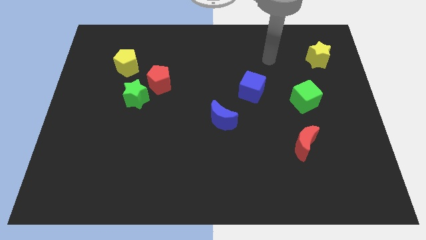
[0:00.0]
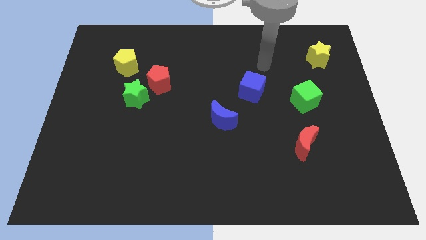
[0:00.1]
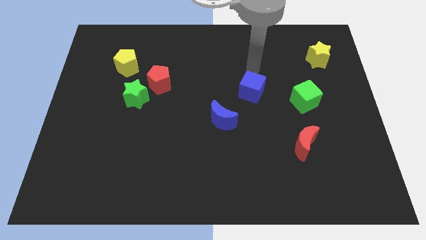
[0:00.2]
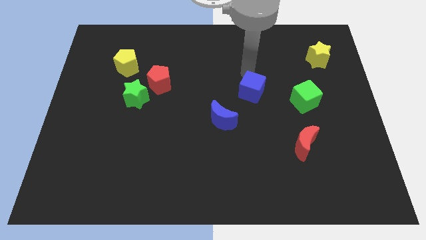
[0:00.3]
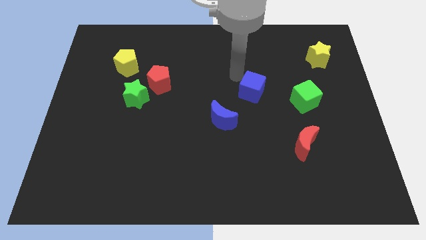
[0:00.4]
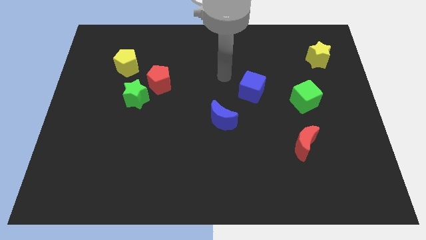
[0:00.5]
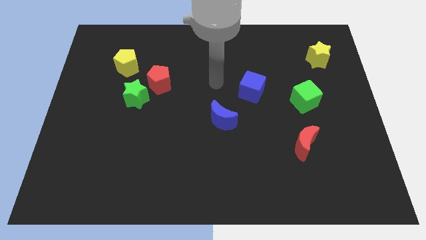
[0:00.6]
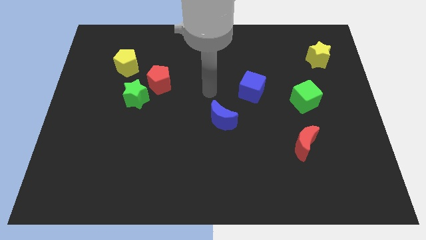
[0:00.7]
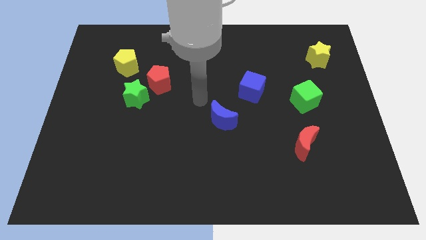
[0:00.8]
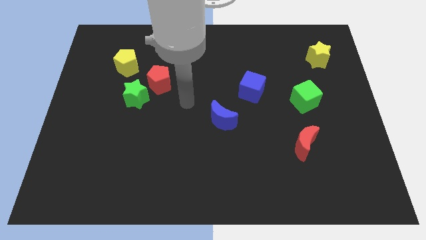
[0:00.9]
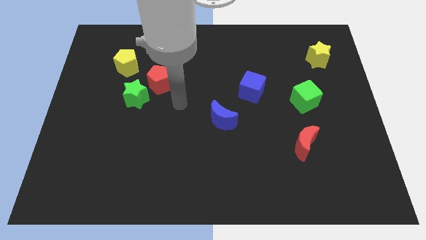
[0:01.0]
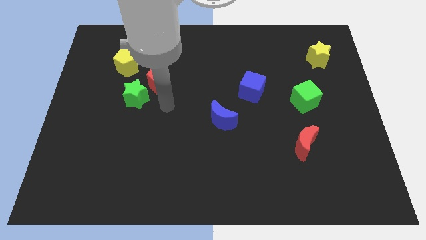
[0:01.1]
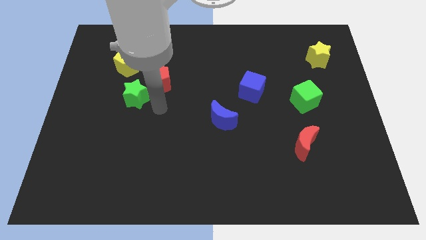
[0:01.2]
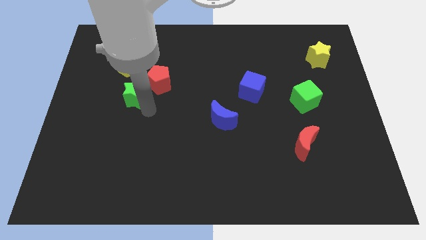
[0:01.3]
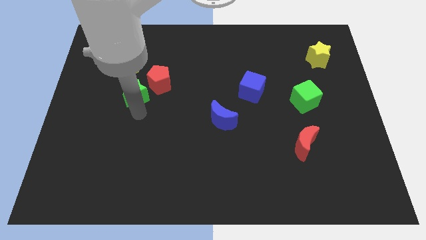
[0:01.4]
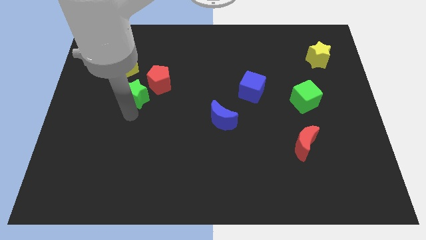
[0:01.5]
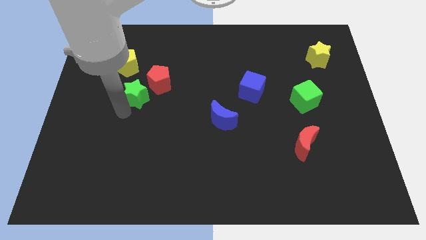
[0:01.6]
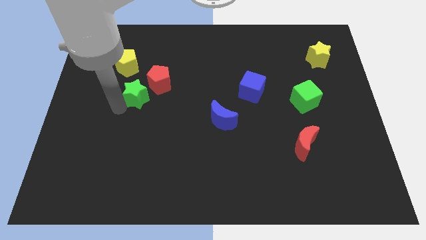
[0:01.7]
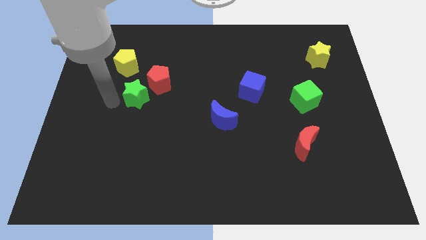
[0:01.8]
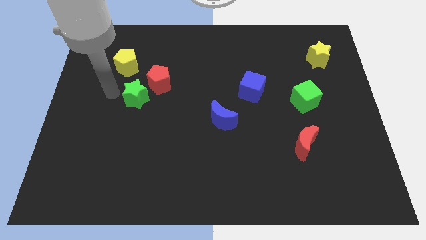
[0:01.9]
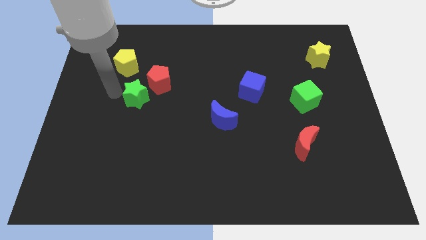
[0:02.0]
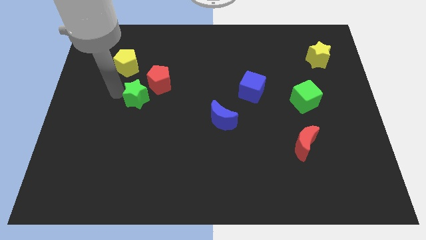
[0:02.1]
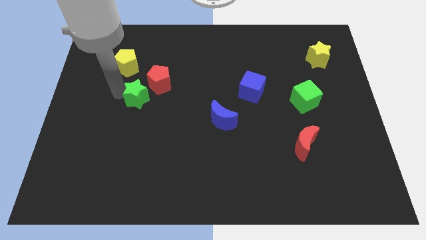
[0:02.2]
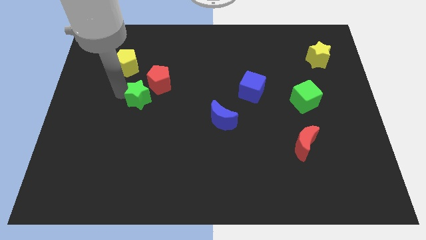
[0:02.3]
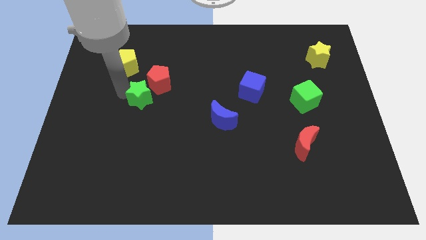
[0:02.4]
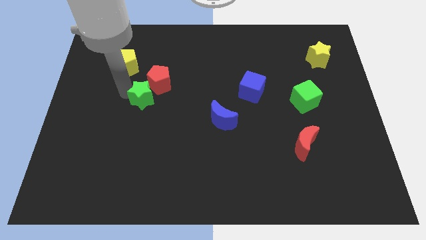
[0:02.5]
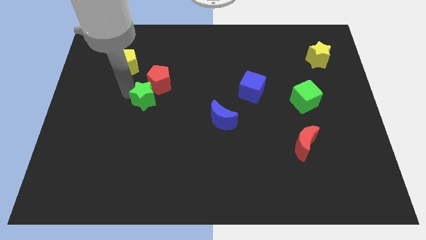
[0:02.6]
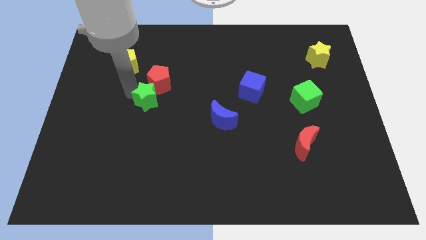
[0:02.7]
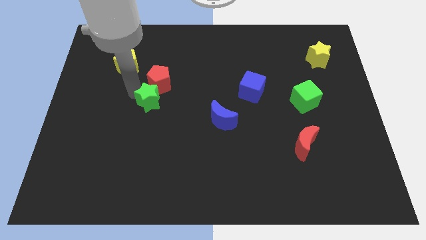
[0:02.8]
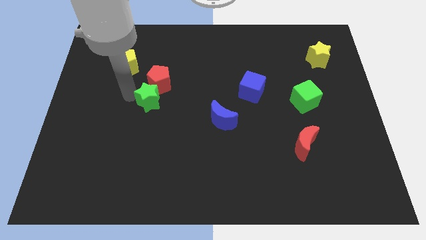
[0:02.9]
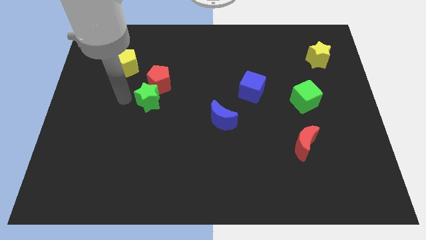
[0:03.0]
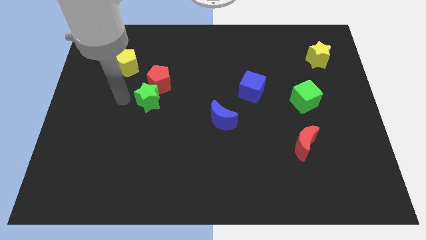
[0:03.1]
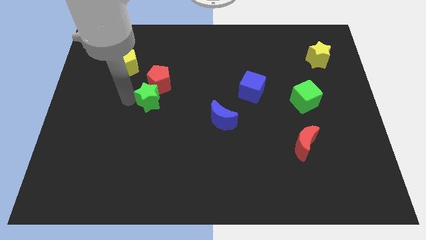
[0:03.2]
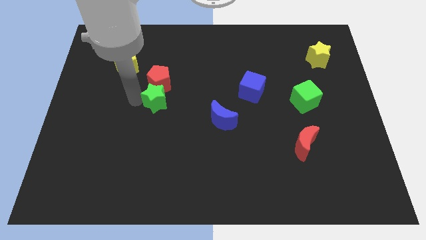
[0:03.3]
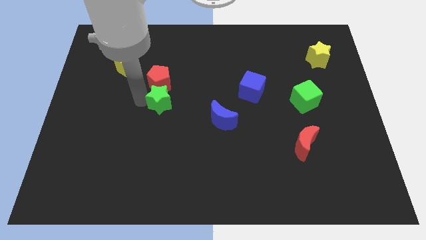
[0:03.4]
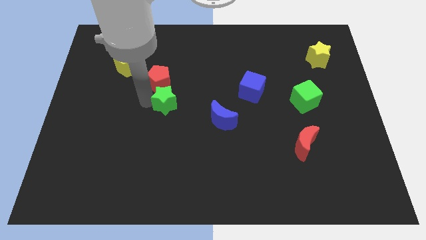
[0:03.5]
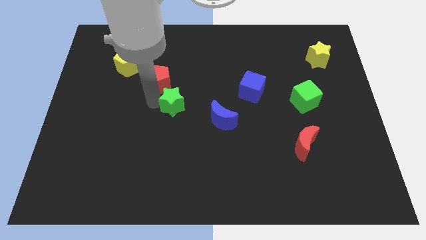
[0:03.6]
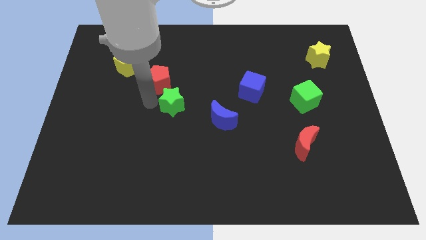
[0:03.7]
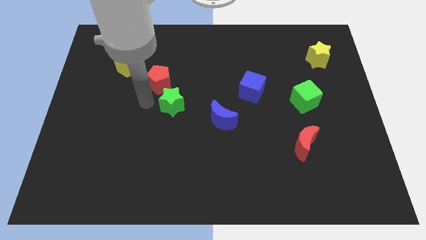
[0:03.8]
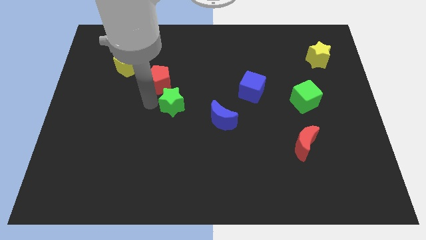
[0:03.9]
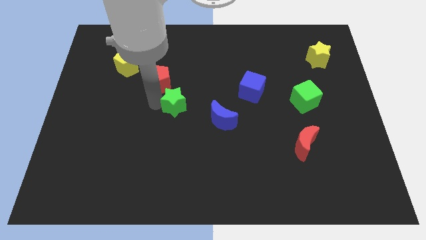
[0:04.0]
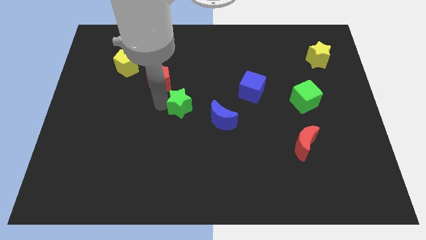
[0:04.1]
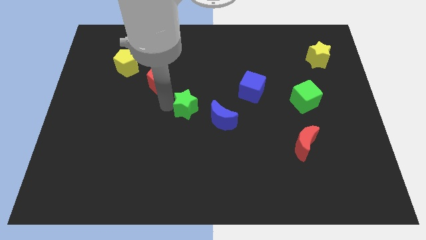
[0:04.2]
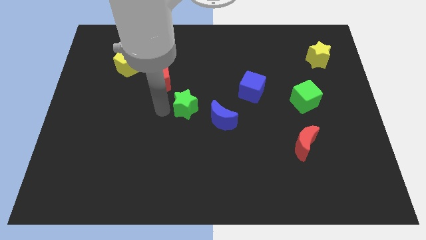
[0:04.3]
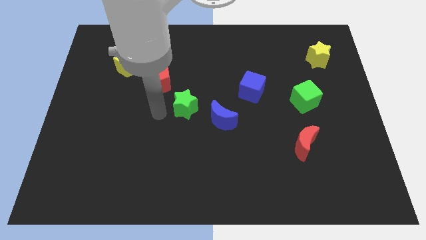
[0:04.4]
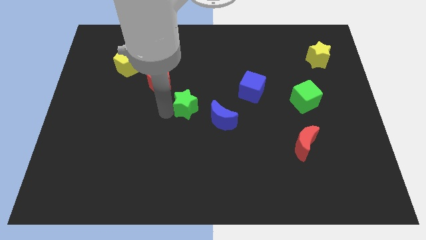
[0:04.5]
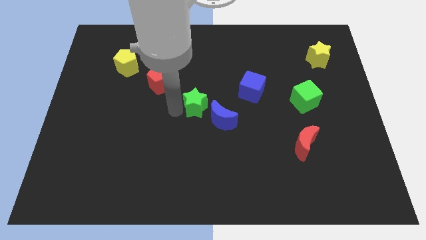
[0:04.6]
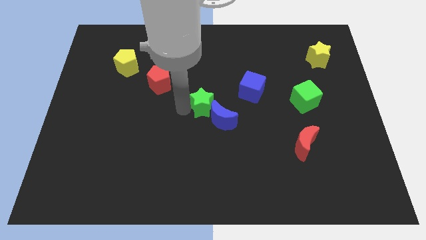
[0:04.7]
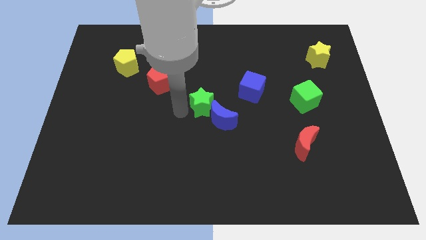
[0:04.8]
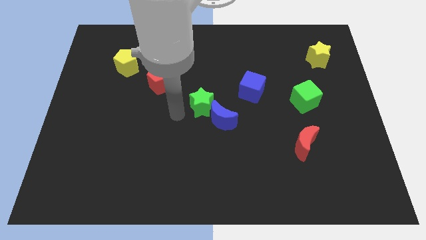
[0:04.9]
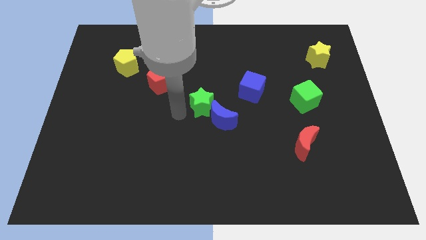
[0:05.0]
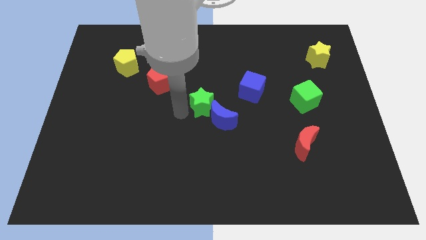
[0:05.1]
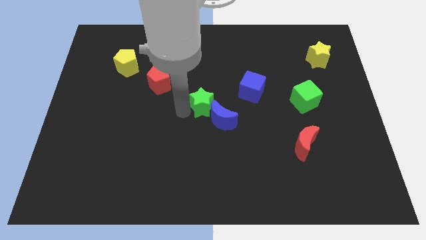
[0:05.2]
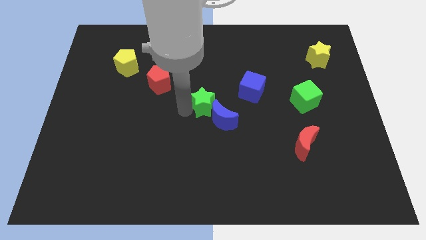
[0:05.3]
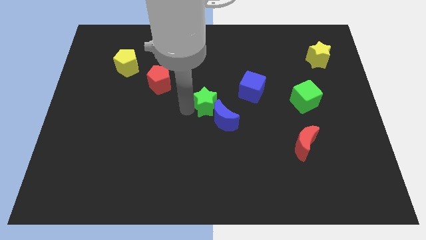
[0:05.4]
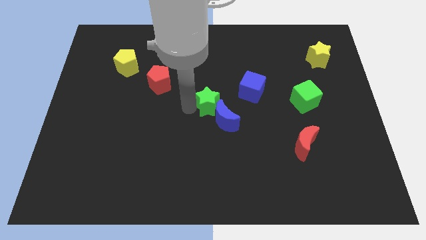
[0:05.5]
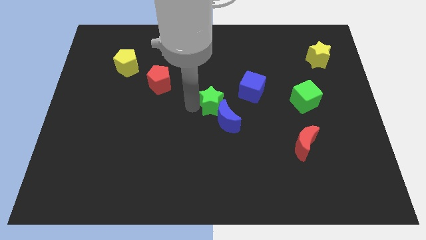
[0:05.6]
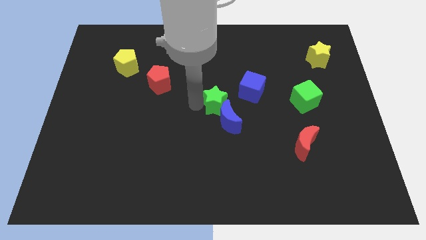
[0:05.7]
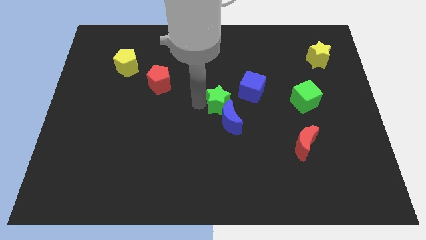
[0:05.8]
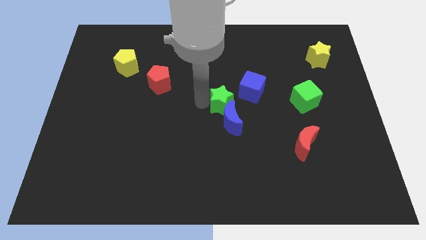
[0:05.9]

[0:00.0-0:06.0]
move the green star to the right

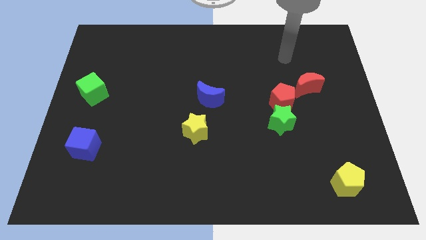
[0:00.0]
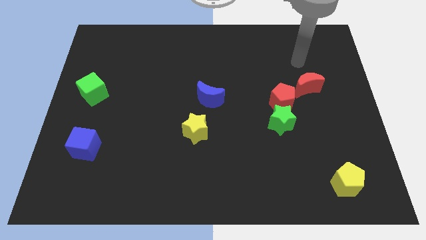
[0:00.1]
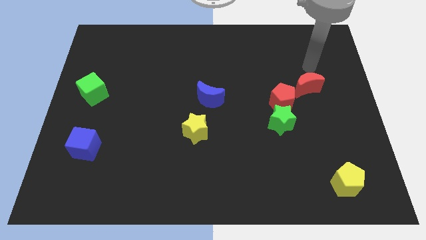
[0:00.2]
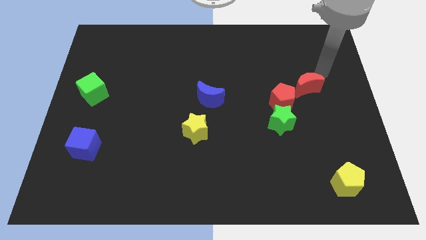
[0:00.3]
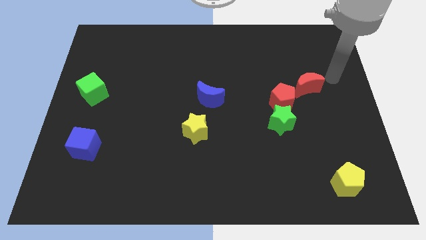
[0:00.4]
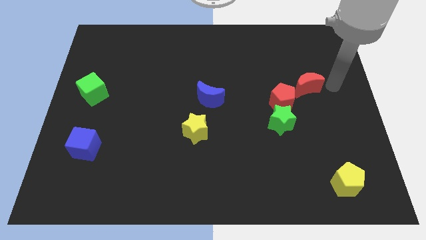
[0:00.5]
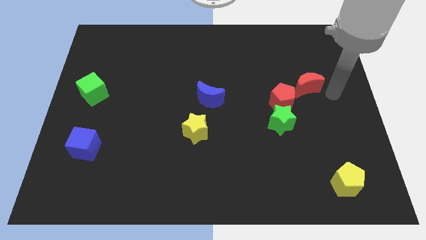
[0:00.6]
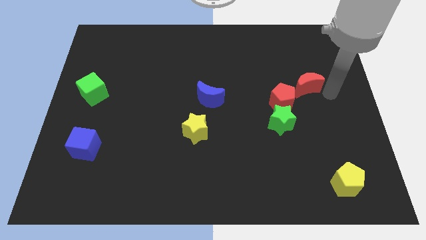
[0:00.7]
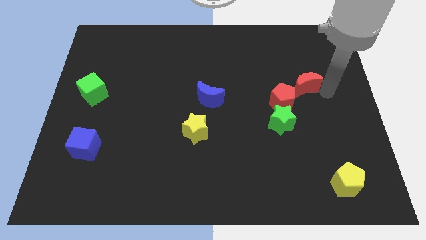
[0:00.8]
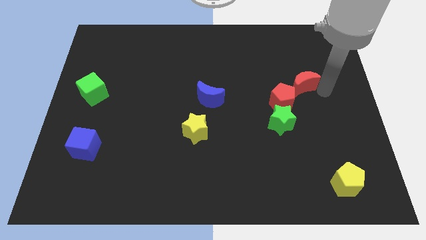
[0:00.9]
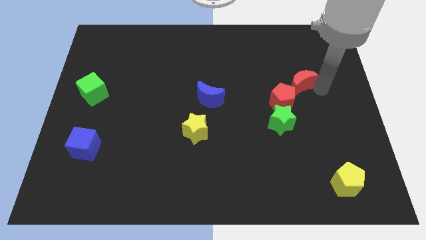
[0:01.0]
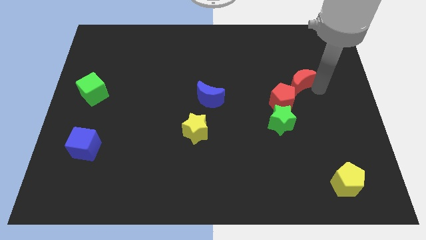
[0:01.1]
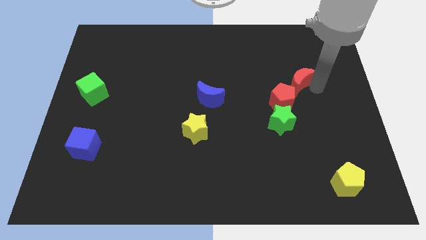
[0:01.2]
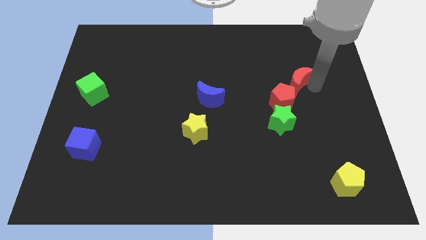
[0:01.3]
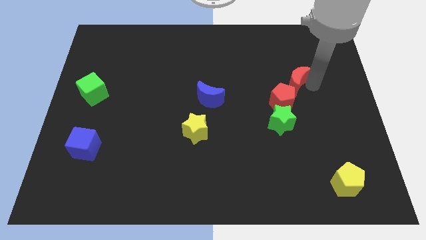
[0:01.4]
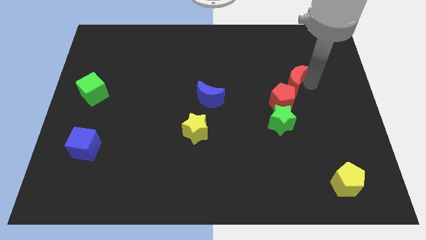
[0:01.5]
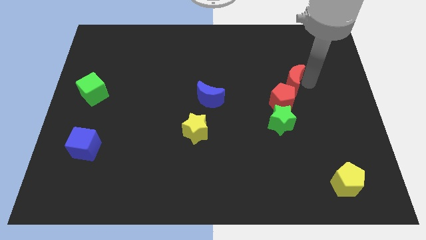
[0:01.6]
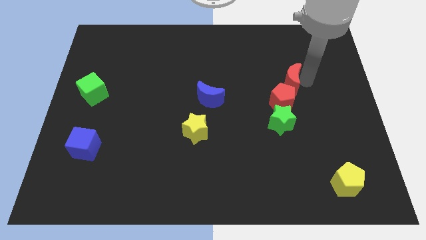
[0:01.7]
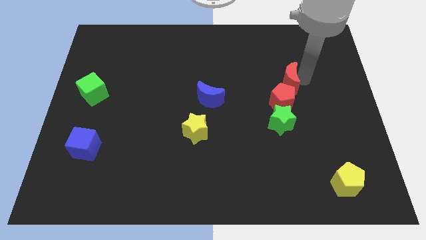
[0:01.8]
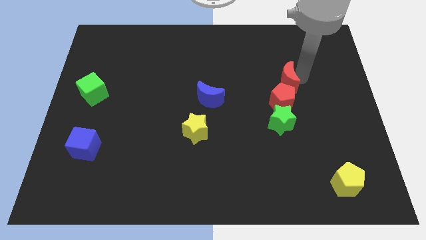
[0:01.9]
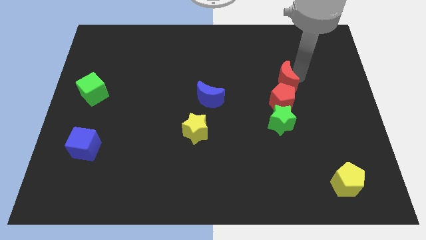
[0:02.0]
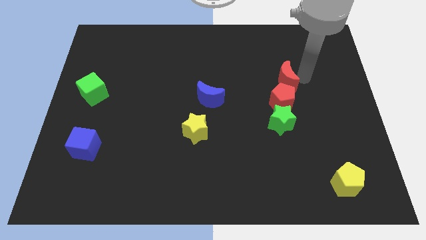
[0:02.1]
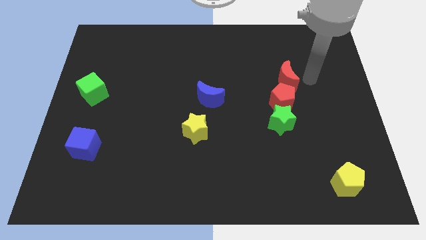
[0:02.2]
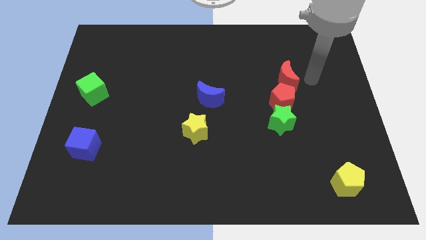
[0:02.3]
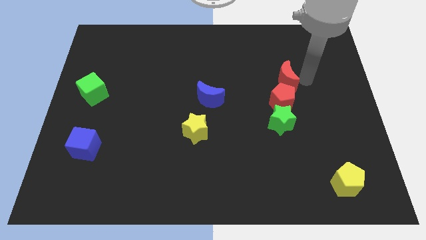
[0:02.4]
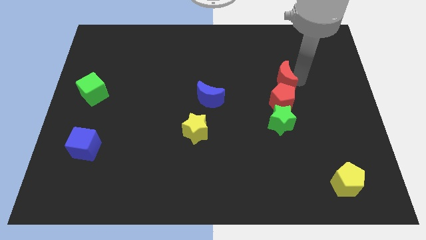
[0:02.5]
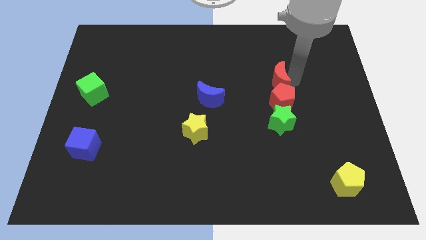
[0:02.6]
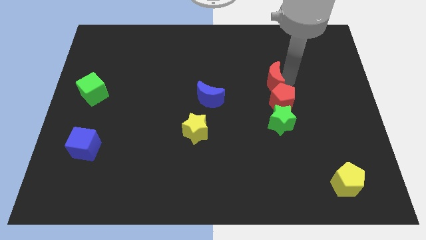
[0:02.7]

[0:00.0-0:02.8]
move the red moon somewhat to the left
